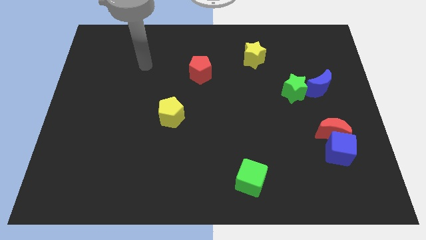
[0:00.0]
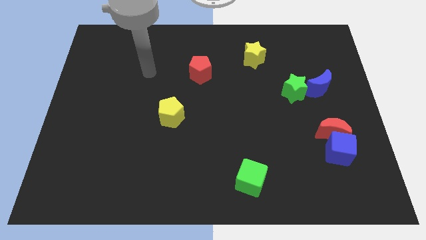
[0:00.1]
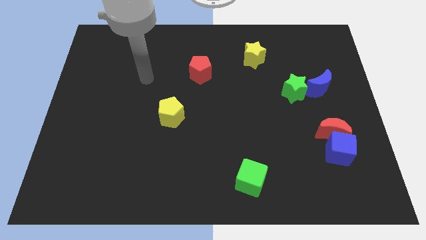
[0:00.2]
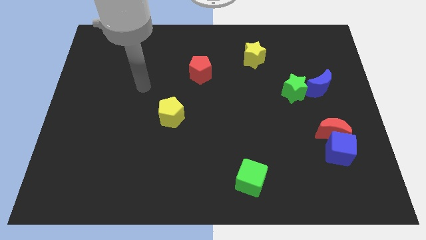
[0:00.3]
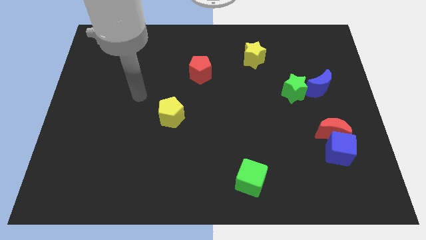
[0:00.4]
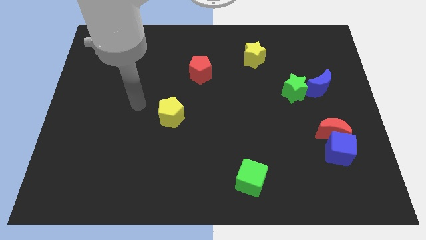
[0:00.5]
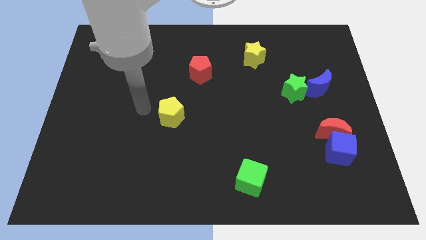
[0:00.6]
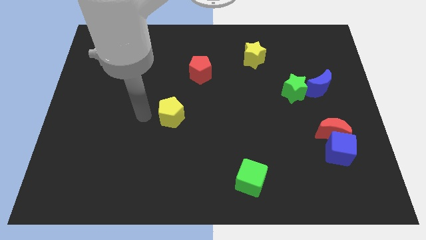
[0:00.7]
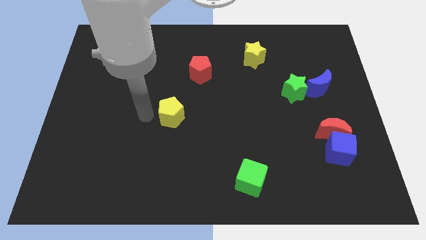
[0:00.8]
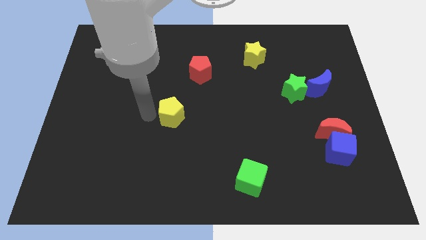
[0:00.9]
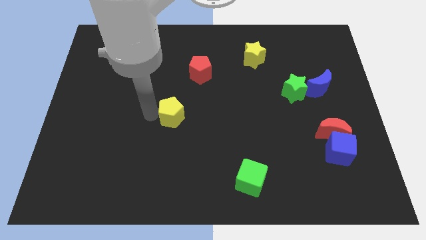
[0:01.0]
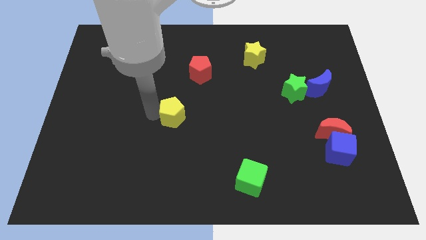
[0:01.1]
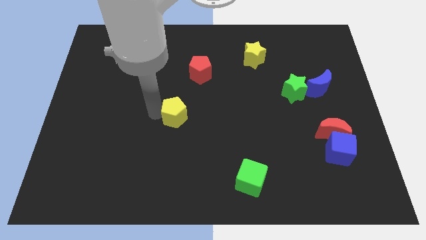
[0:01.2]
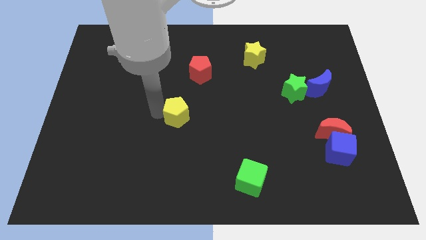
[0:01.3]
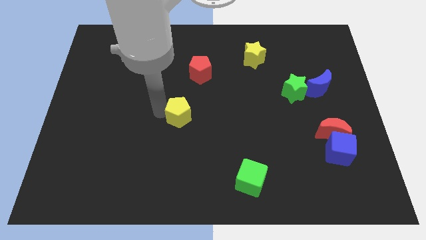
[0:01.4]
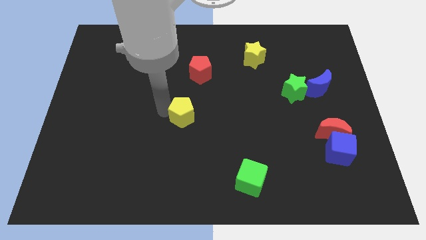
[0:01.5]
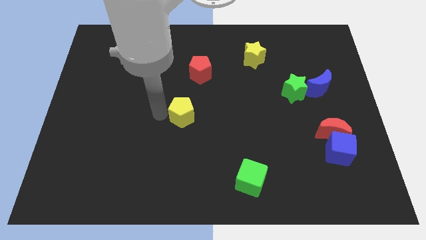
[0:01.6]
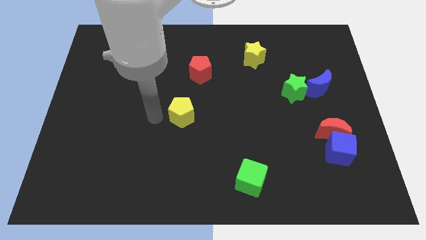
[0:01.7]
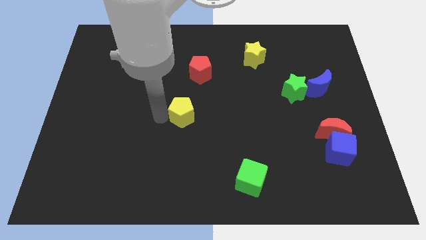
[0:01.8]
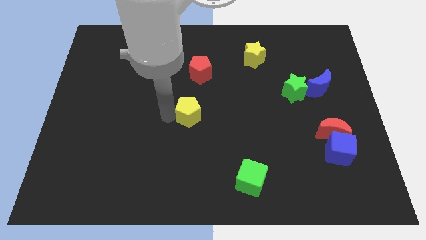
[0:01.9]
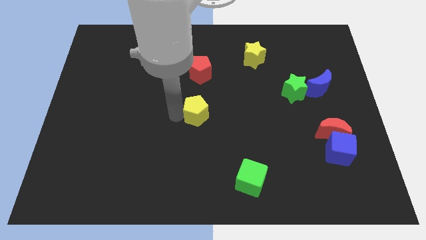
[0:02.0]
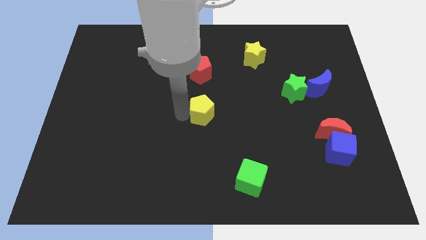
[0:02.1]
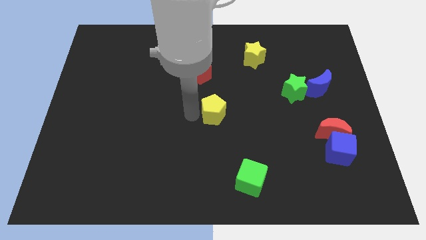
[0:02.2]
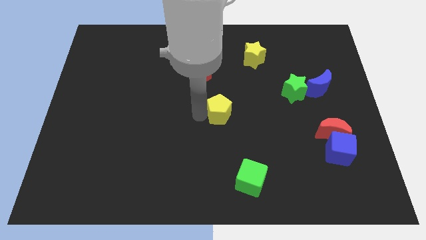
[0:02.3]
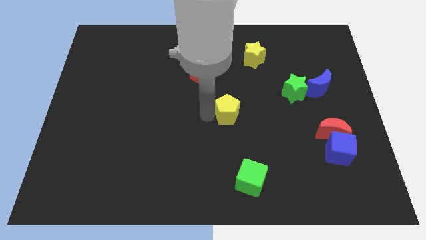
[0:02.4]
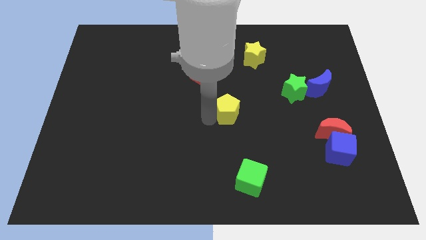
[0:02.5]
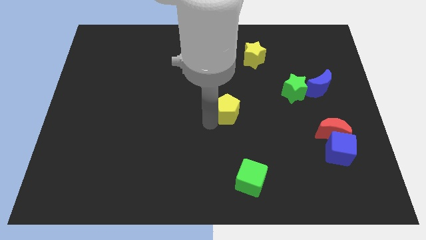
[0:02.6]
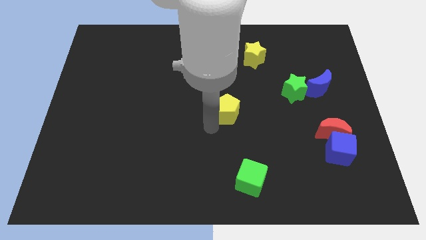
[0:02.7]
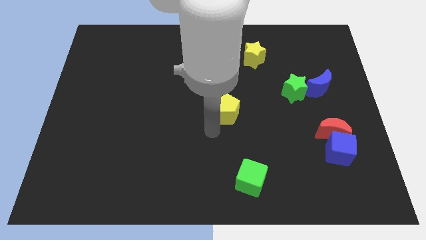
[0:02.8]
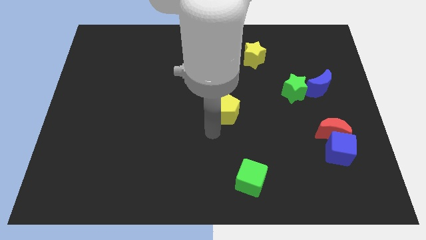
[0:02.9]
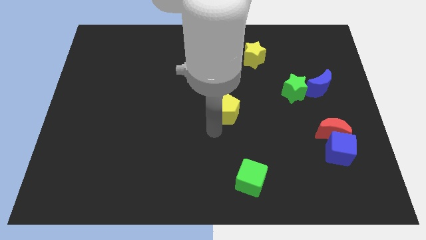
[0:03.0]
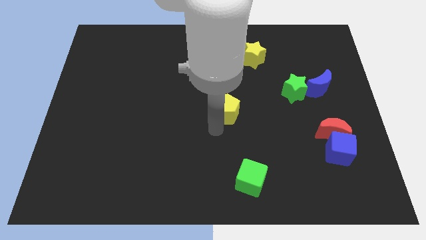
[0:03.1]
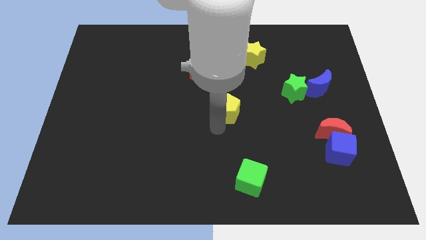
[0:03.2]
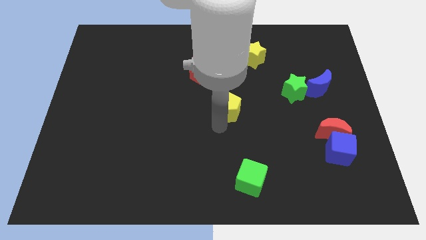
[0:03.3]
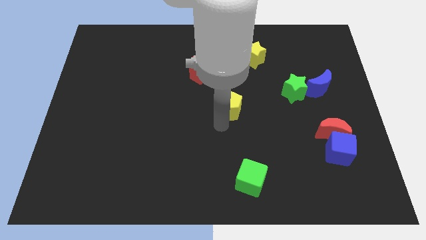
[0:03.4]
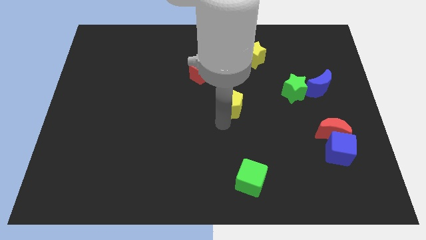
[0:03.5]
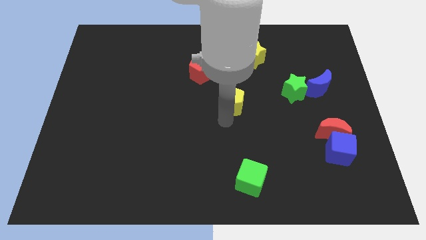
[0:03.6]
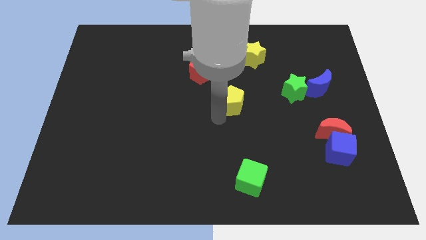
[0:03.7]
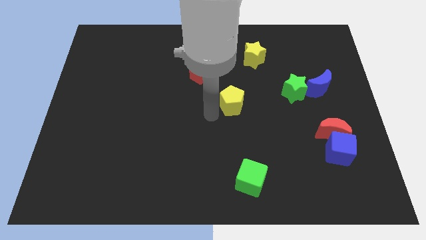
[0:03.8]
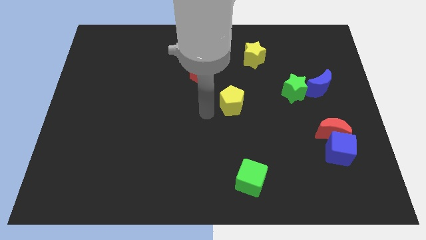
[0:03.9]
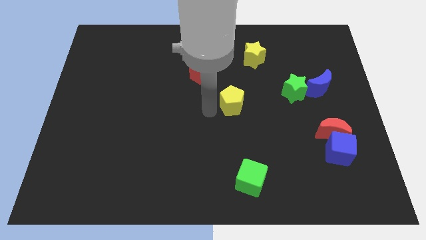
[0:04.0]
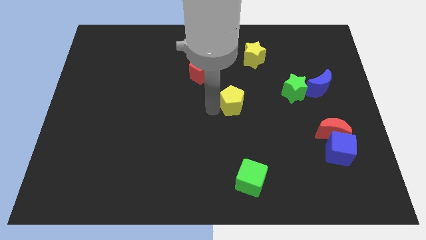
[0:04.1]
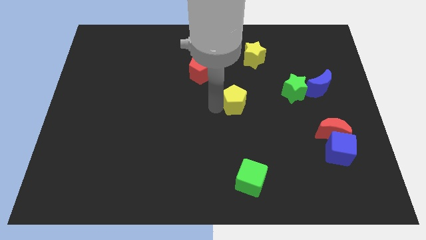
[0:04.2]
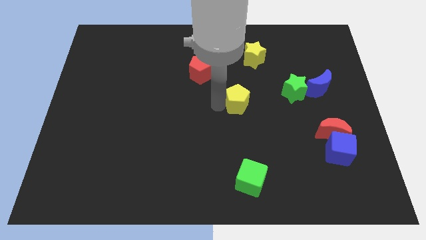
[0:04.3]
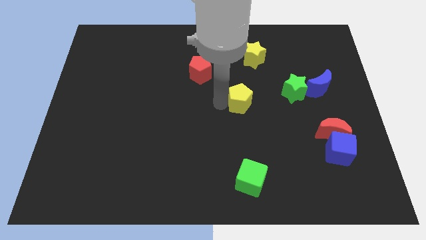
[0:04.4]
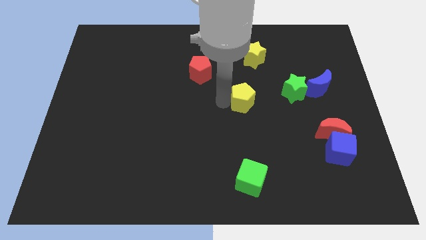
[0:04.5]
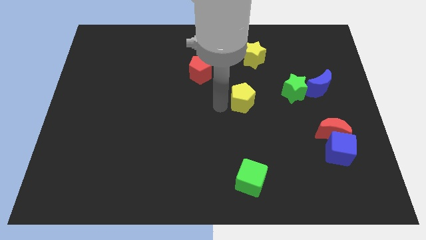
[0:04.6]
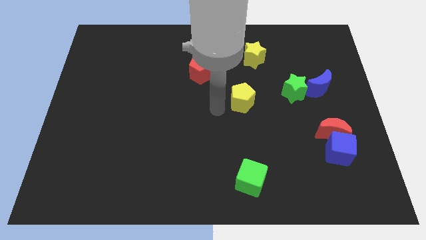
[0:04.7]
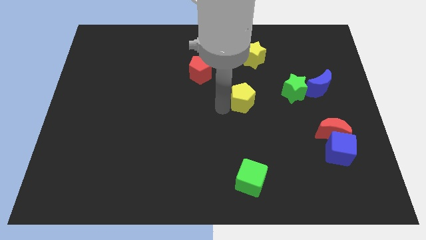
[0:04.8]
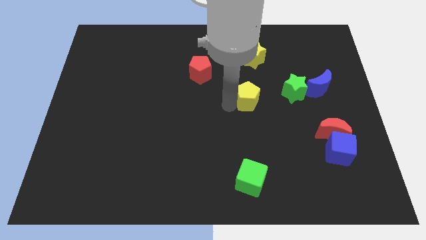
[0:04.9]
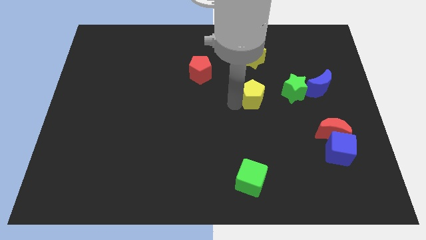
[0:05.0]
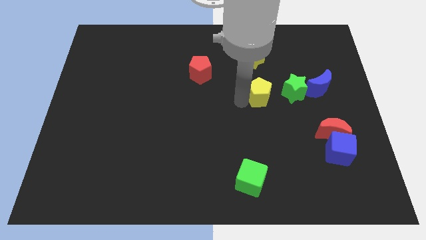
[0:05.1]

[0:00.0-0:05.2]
move the yellow pentagon left of the blue moon

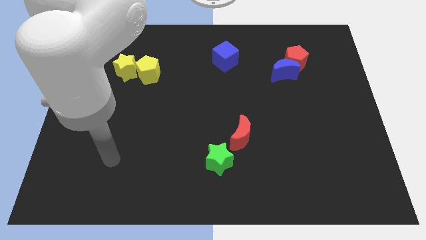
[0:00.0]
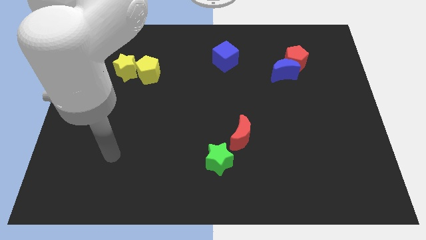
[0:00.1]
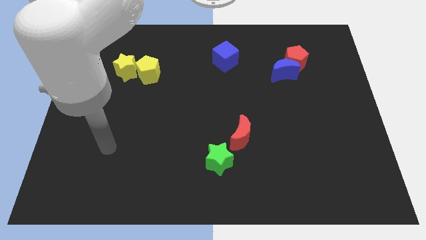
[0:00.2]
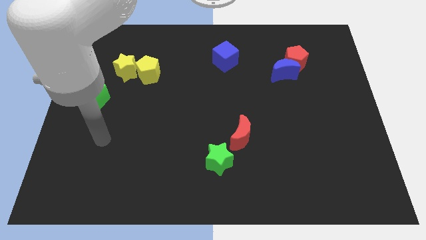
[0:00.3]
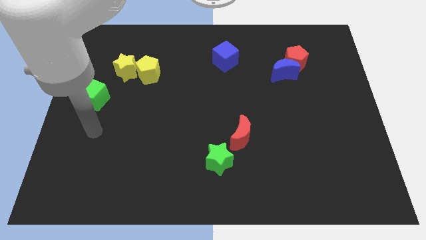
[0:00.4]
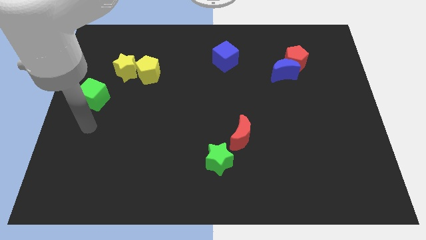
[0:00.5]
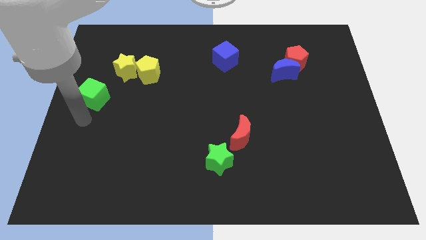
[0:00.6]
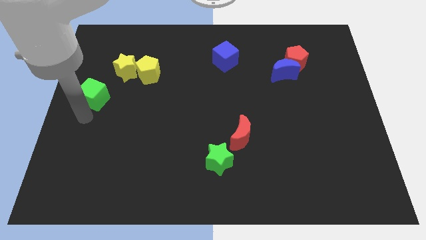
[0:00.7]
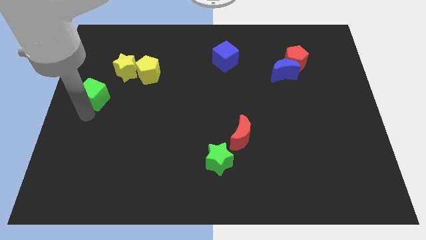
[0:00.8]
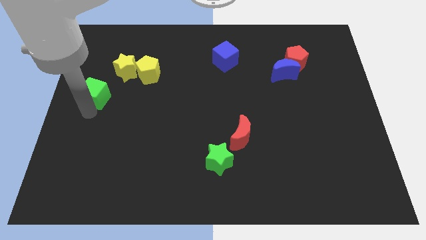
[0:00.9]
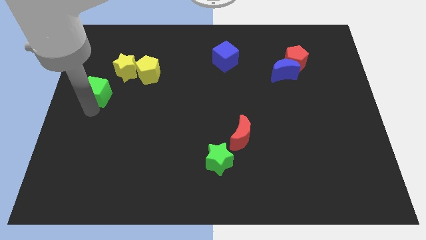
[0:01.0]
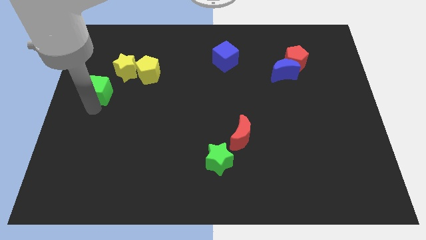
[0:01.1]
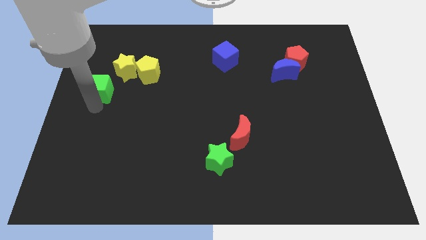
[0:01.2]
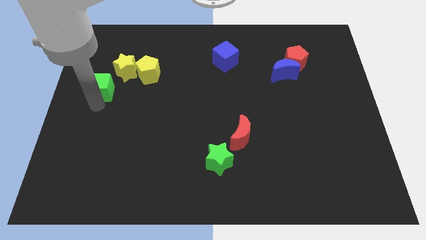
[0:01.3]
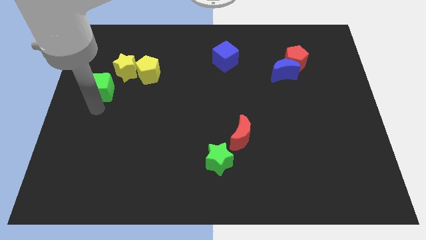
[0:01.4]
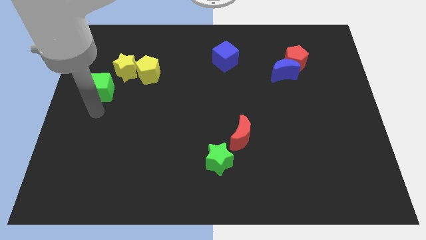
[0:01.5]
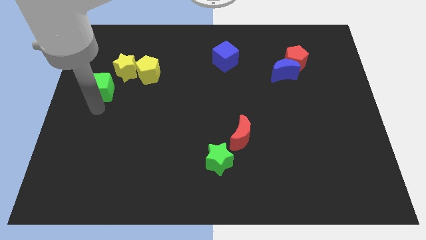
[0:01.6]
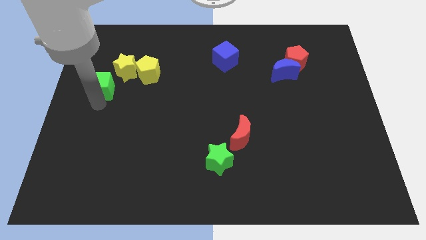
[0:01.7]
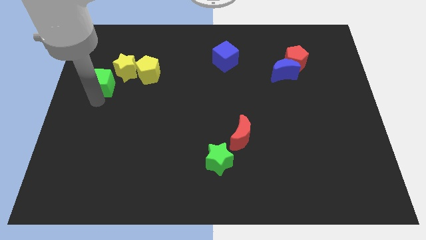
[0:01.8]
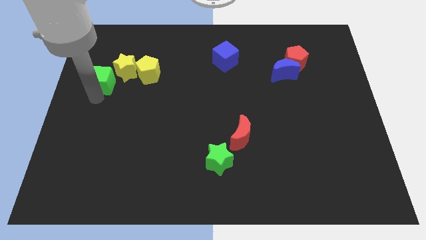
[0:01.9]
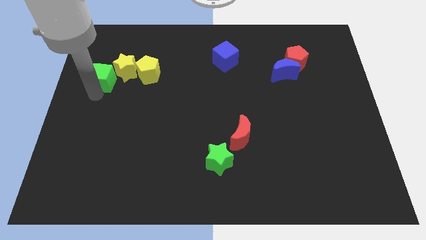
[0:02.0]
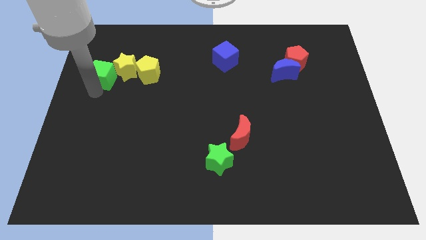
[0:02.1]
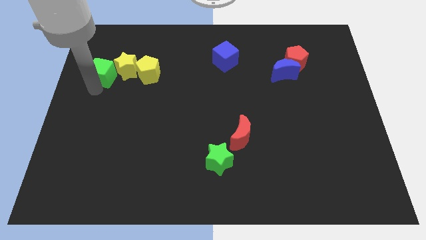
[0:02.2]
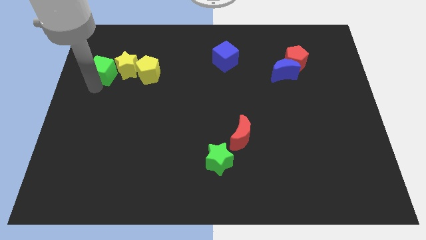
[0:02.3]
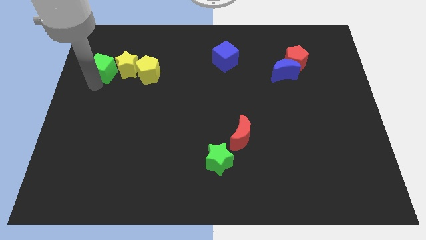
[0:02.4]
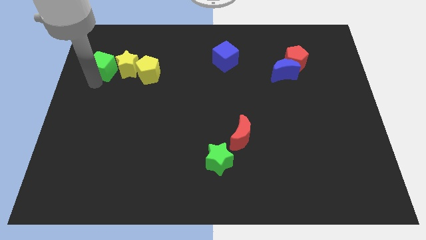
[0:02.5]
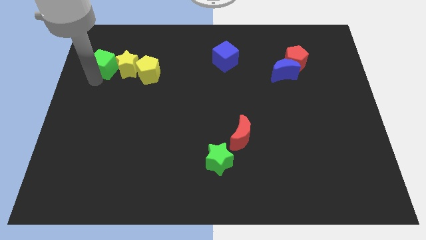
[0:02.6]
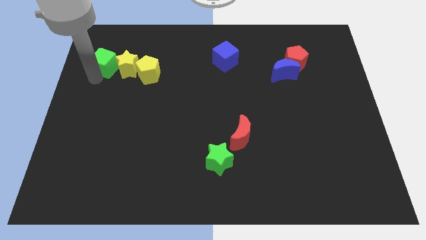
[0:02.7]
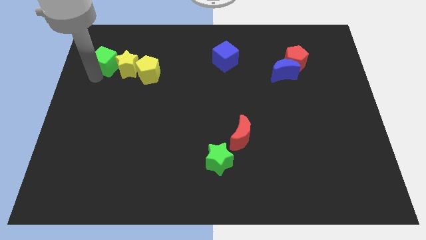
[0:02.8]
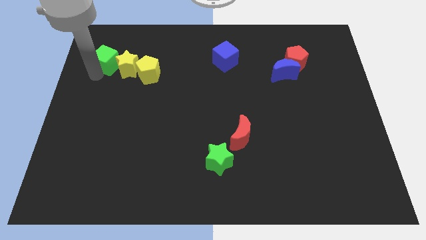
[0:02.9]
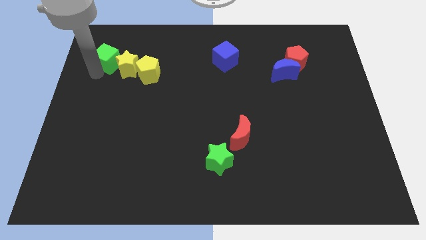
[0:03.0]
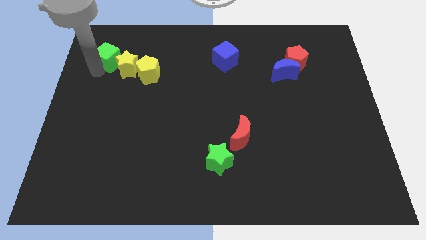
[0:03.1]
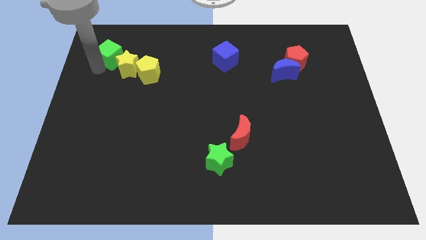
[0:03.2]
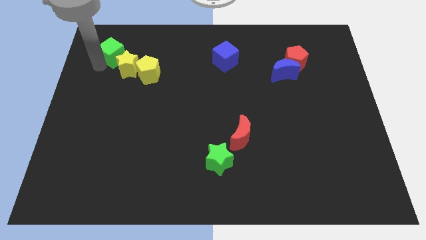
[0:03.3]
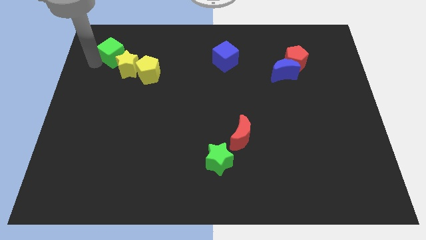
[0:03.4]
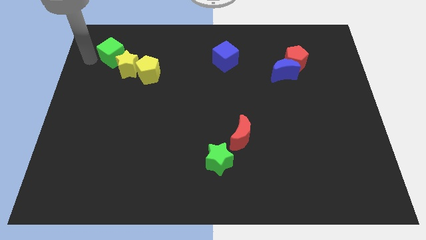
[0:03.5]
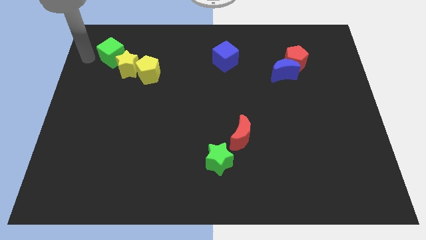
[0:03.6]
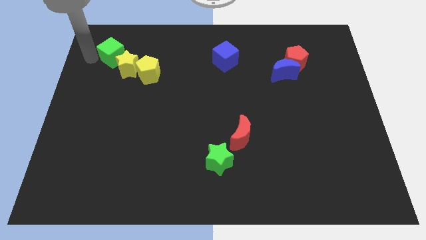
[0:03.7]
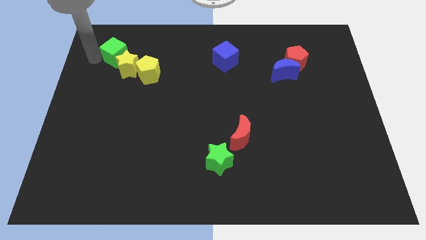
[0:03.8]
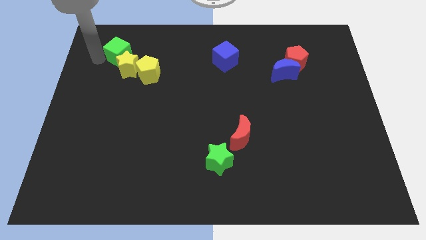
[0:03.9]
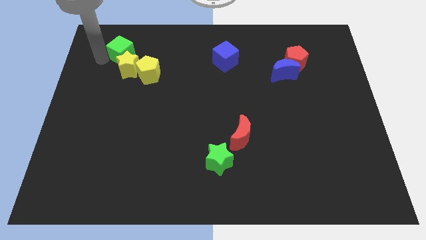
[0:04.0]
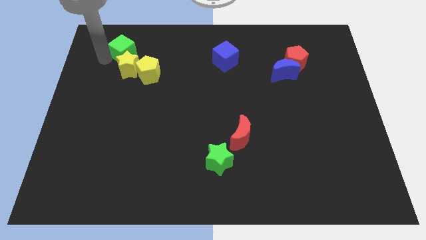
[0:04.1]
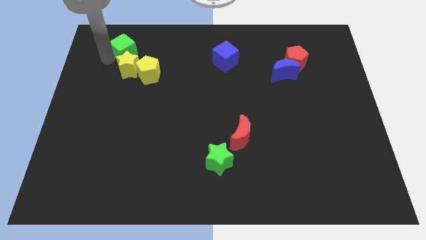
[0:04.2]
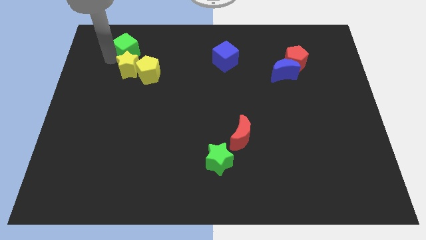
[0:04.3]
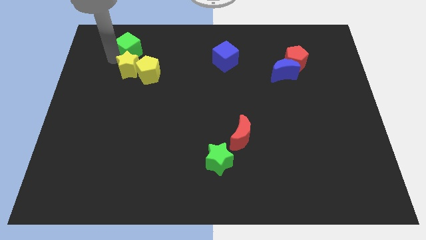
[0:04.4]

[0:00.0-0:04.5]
push the green cube to the top right of the yellow star
